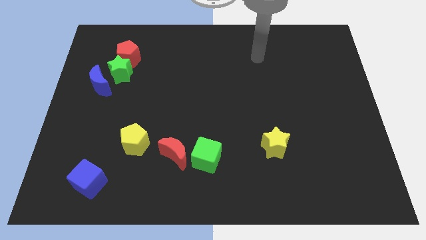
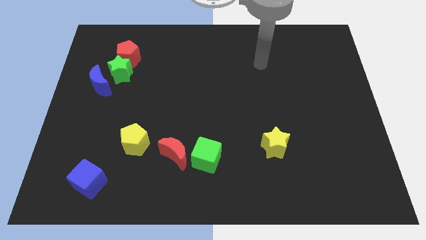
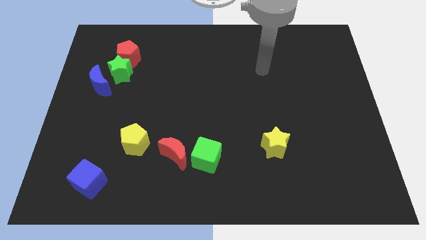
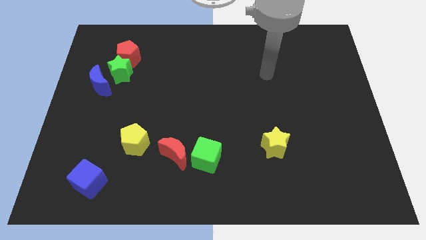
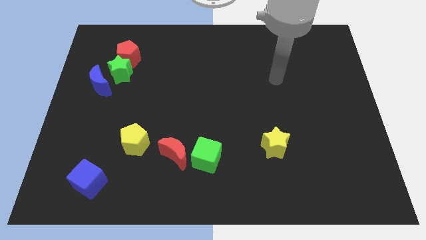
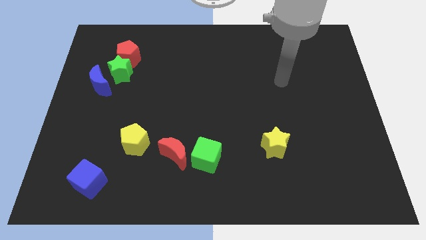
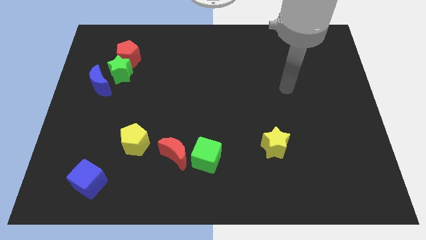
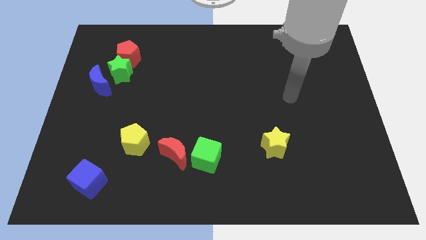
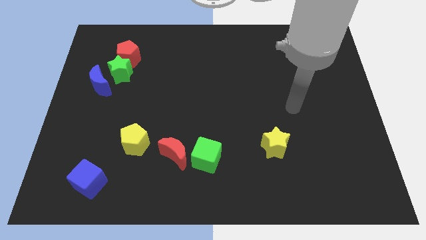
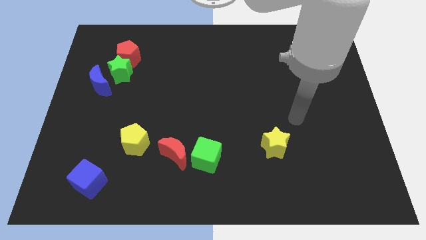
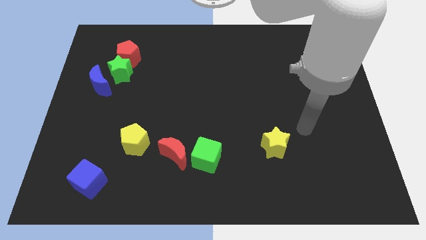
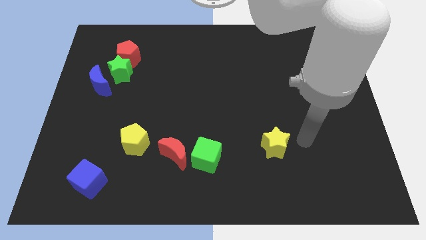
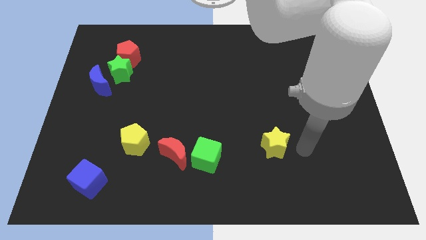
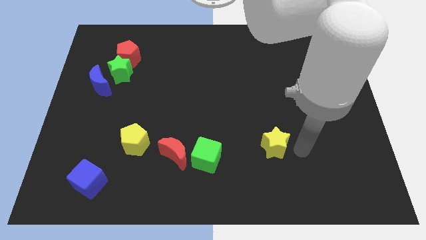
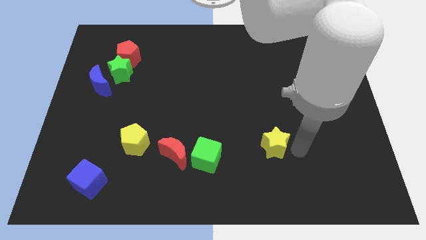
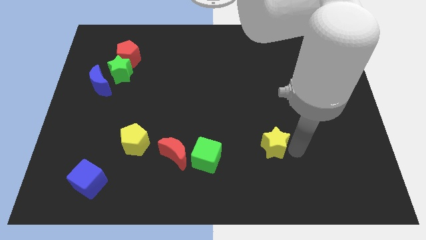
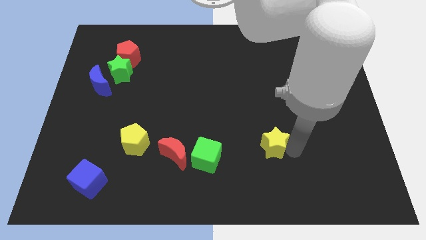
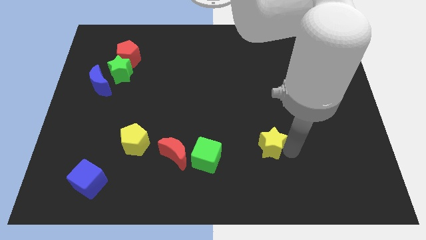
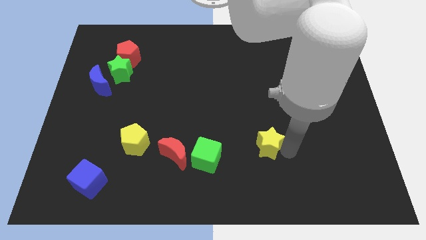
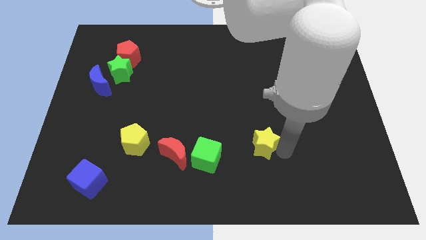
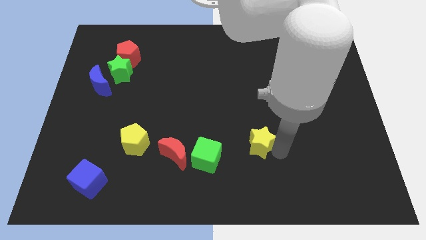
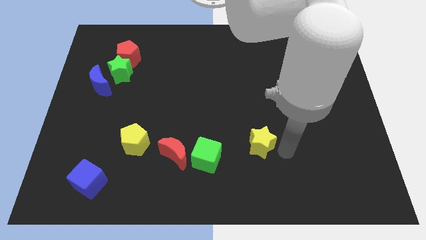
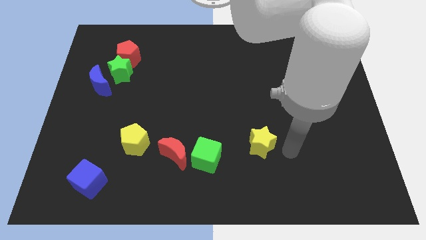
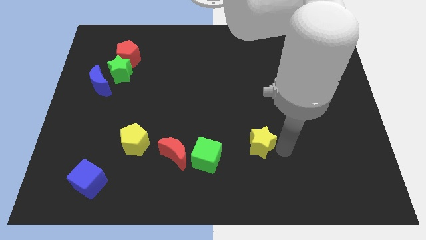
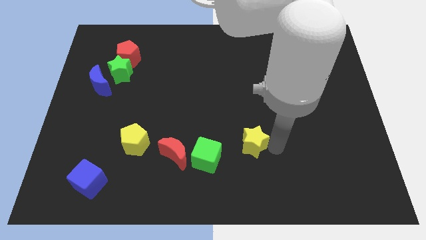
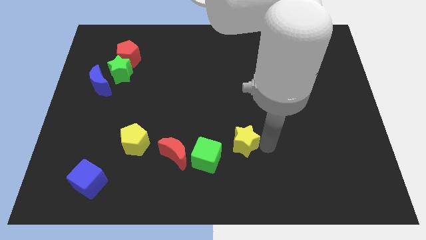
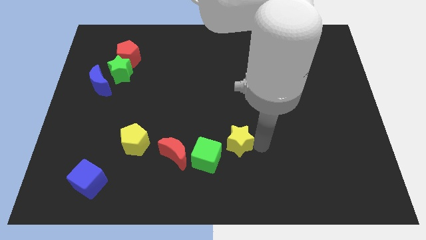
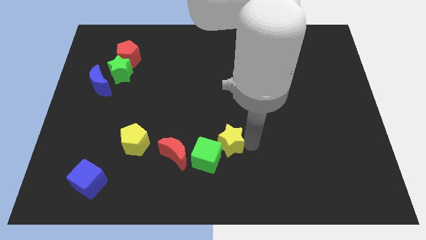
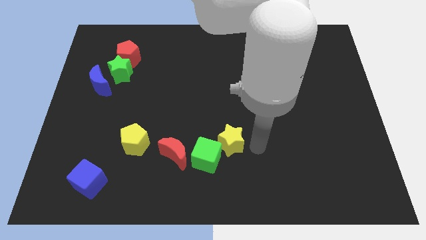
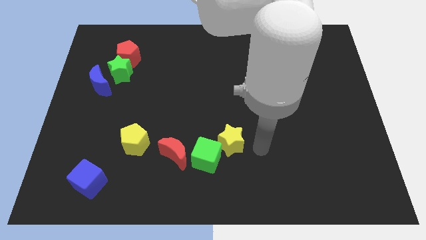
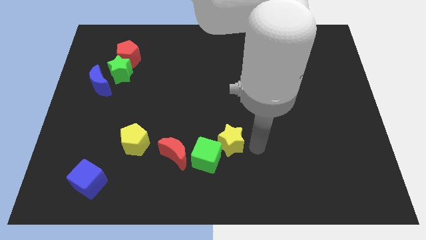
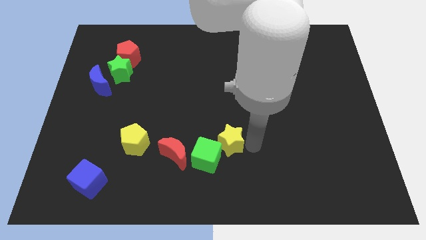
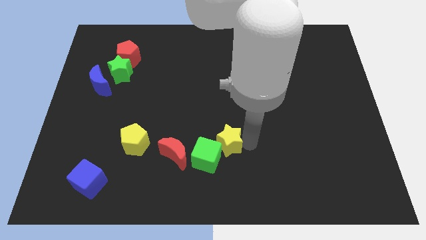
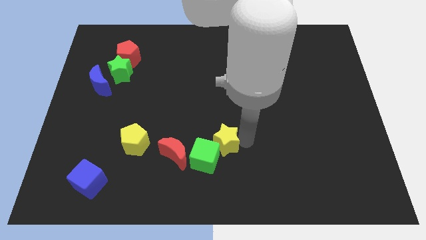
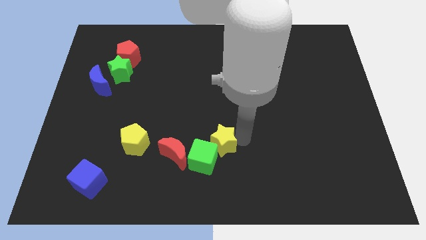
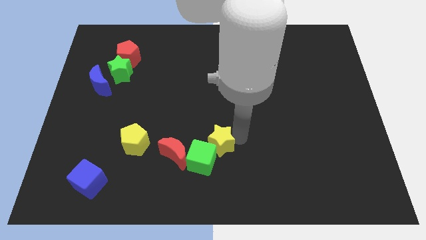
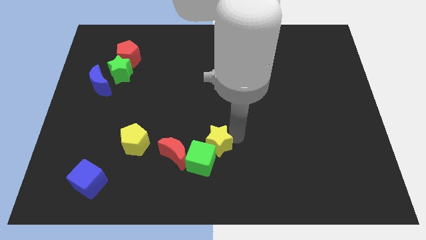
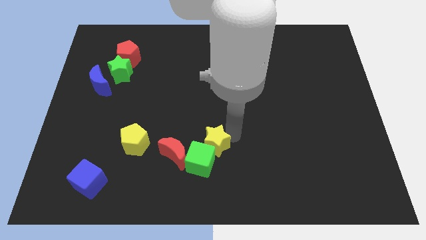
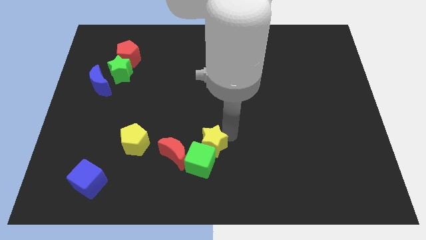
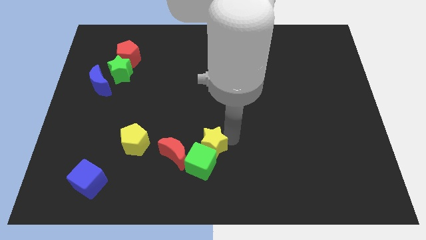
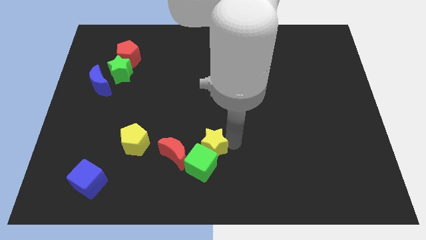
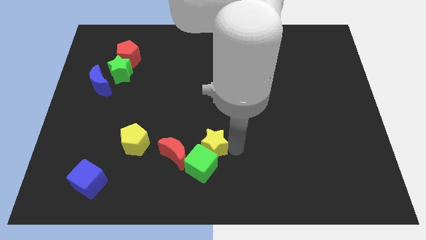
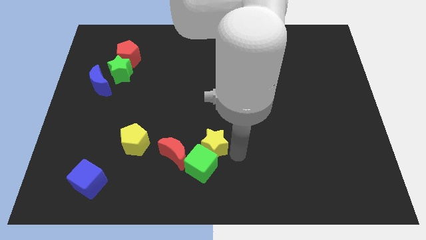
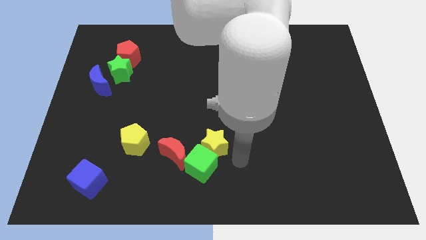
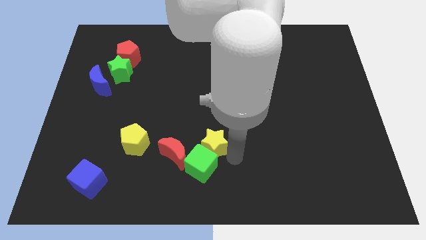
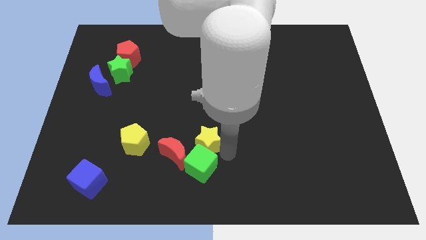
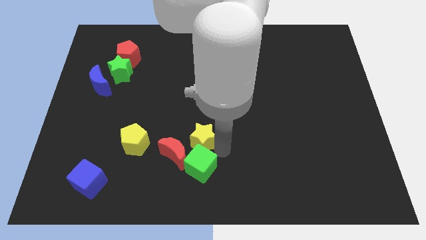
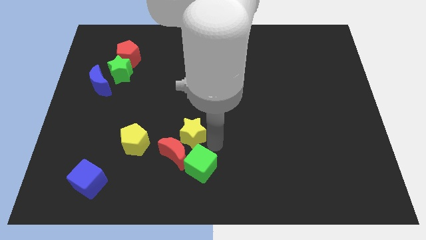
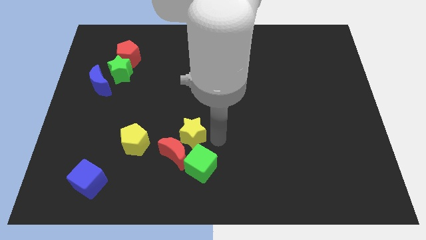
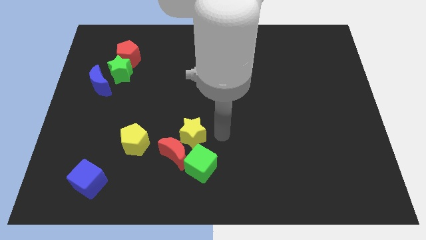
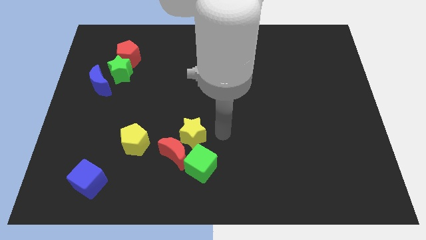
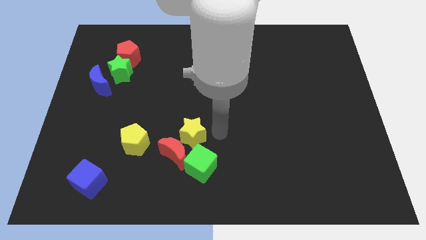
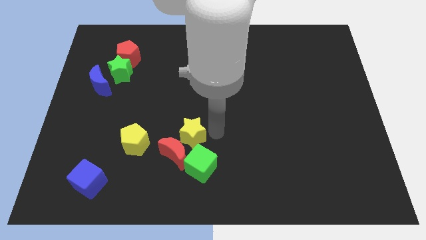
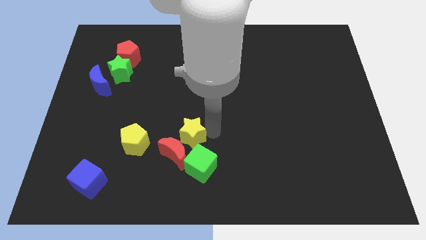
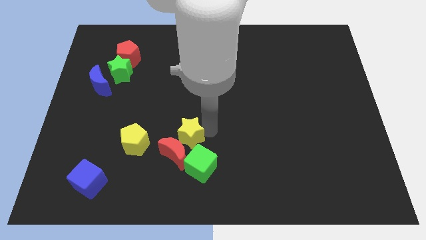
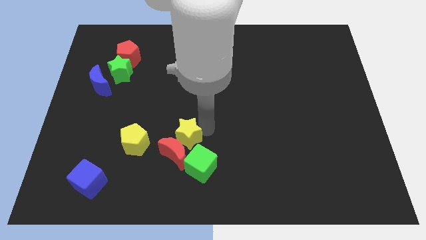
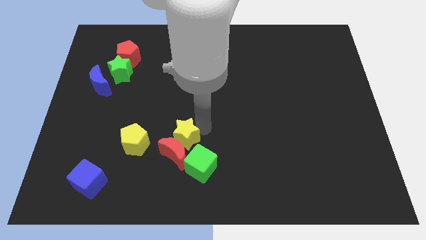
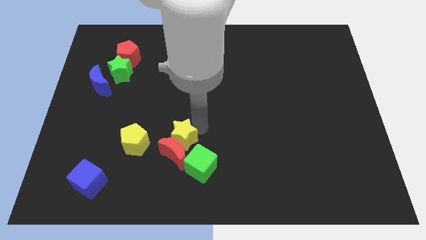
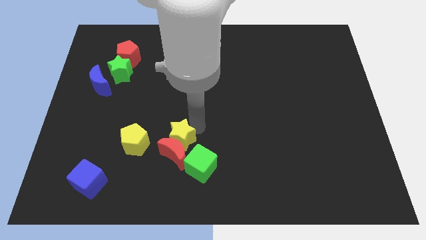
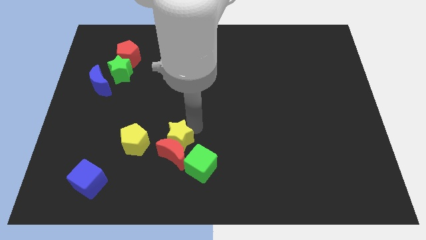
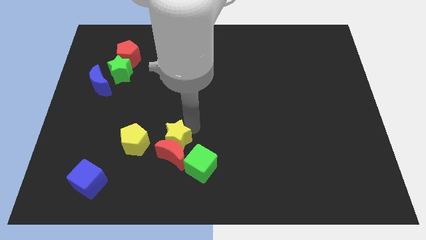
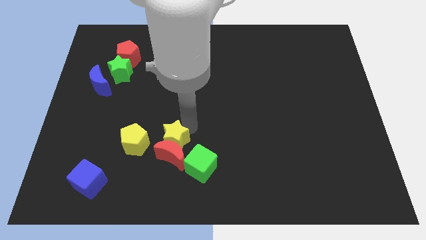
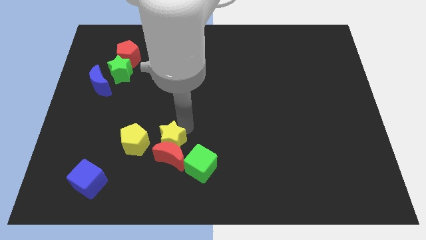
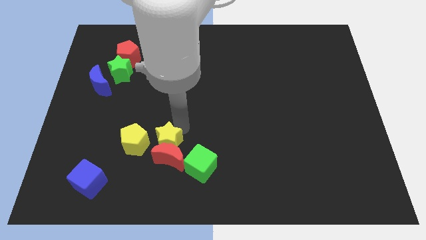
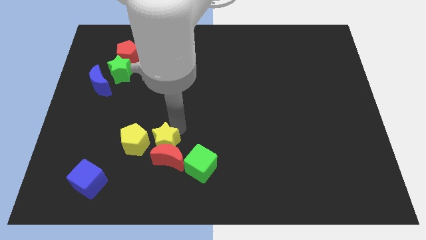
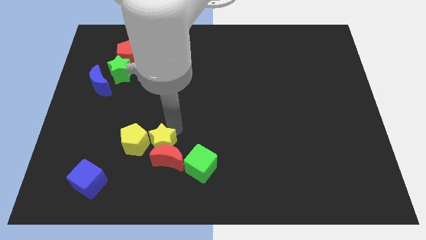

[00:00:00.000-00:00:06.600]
move the yellow star towards the yellow pentagon

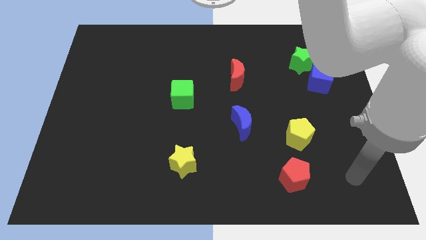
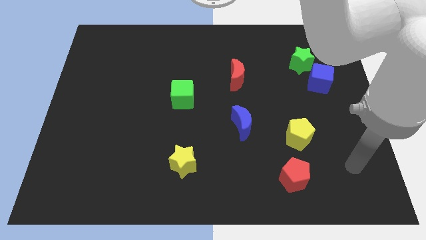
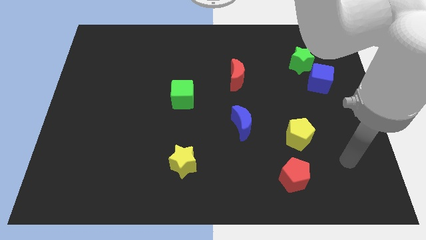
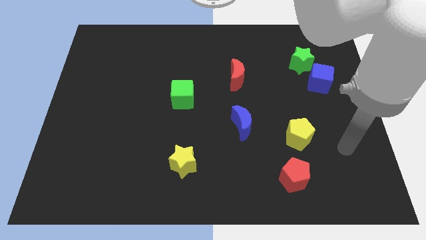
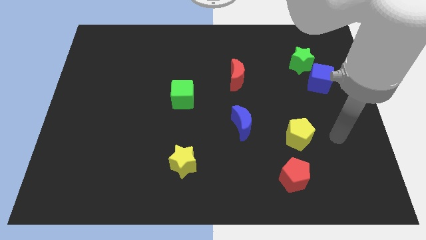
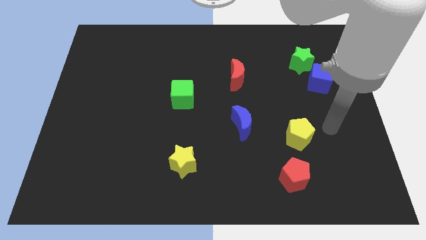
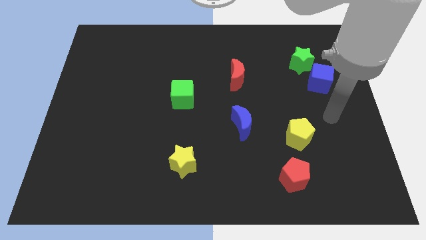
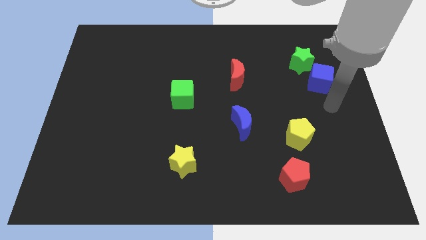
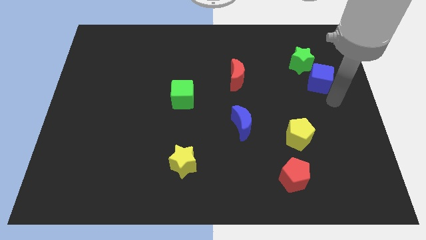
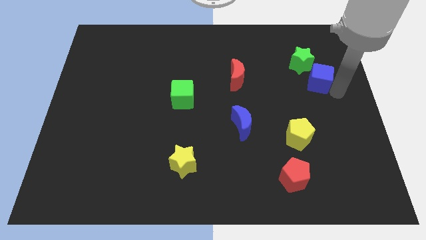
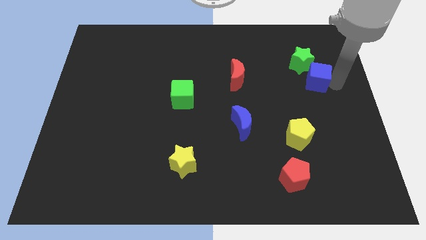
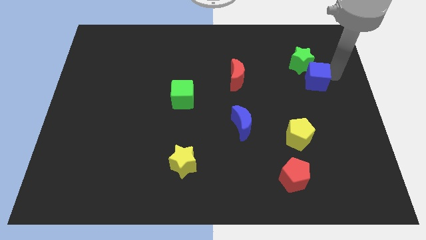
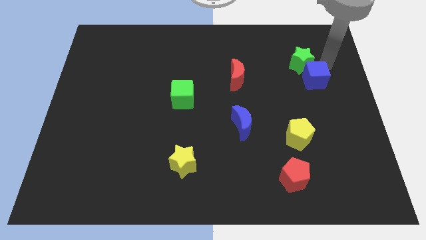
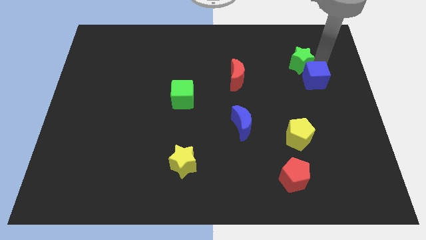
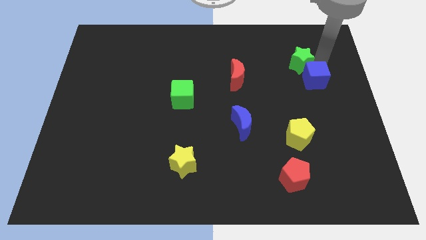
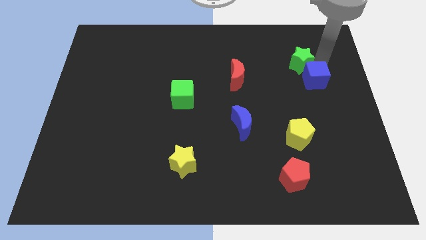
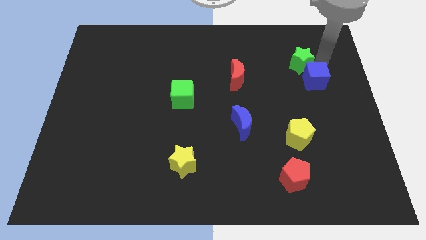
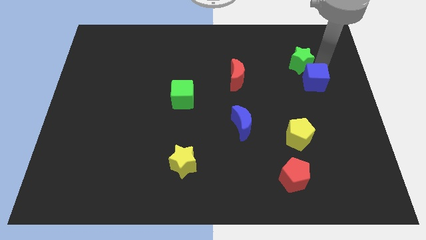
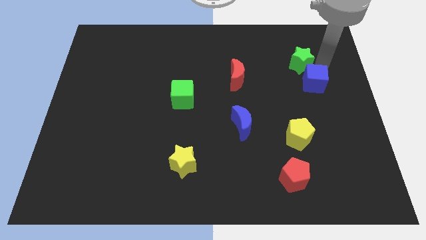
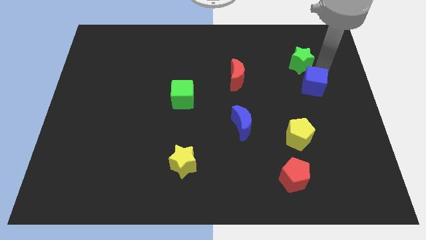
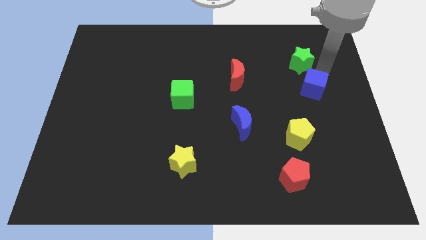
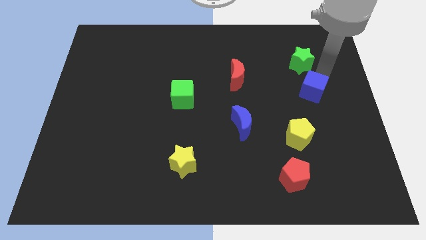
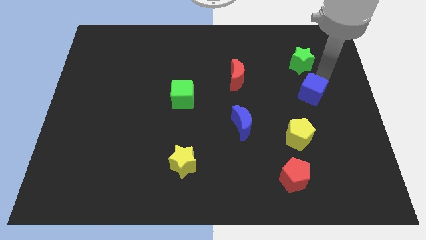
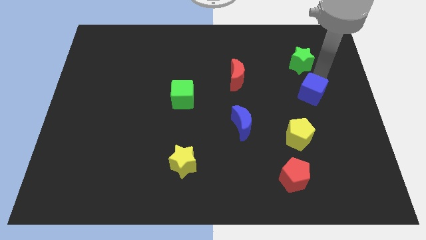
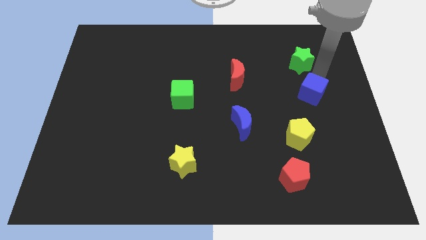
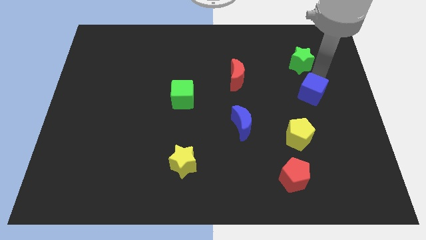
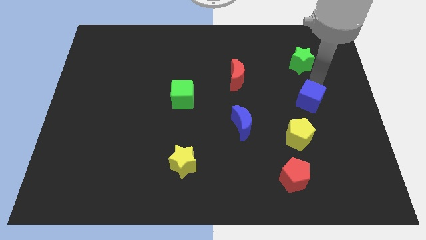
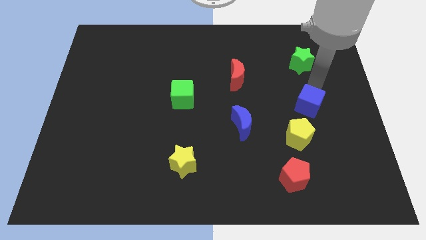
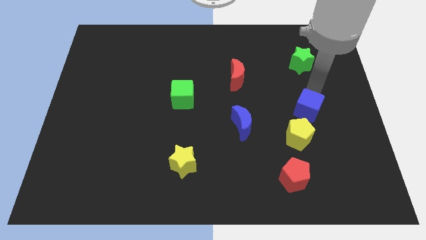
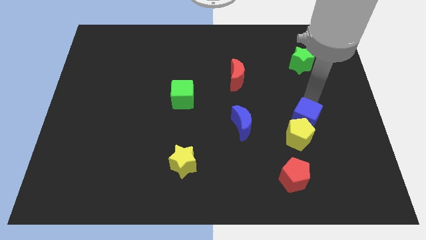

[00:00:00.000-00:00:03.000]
slide the blue cube to the yellow pentagon
